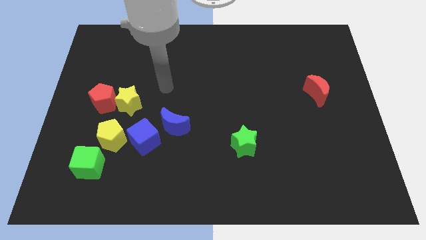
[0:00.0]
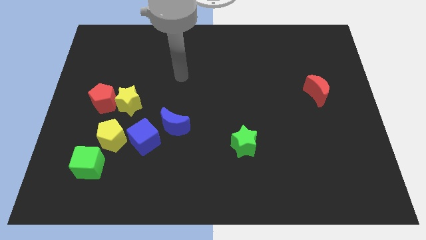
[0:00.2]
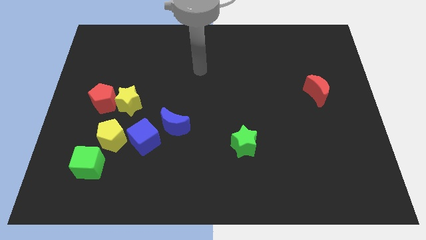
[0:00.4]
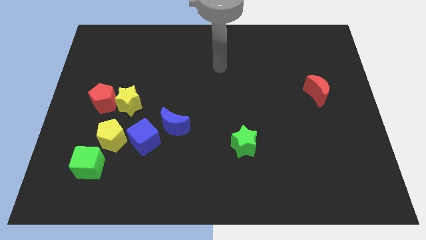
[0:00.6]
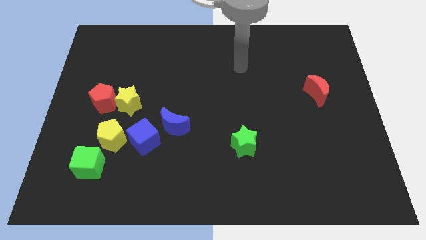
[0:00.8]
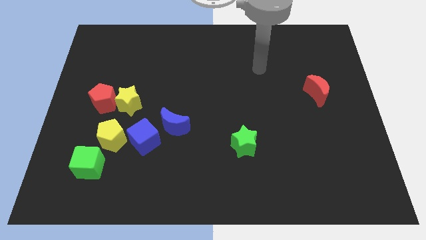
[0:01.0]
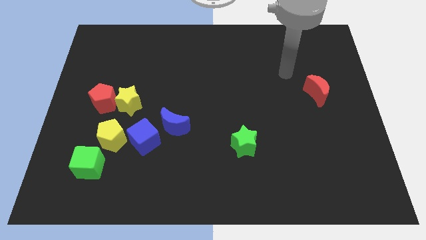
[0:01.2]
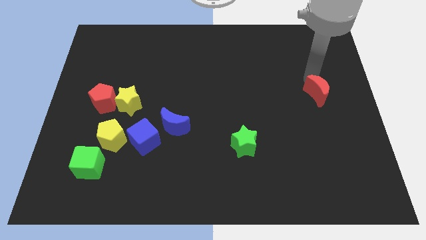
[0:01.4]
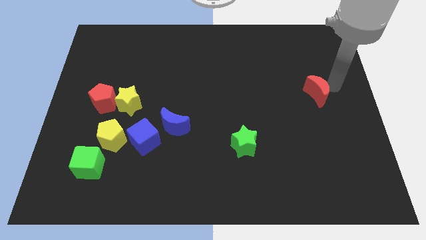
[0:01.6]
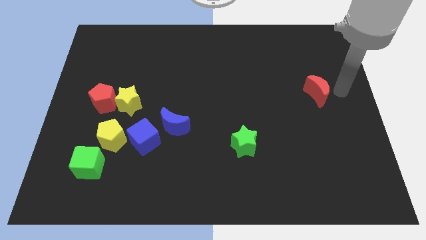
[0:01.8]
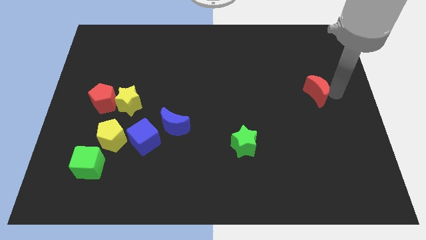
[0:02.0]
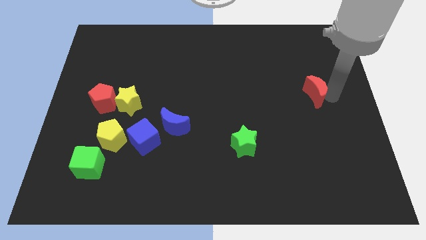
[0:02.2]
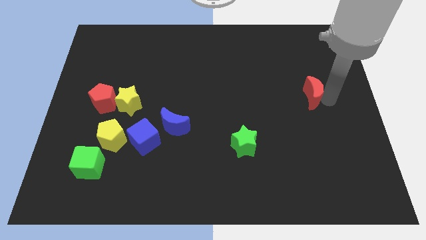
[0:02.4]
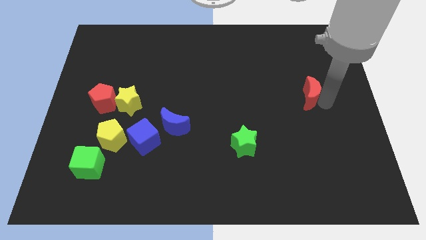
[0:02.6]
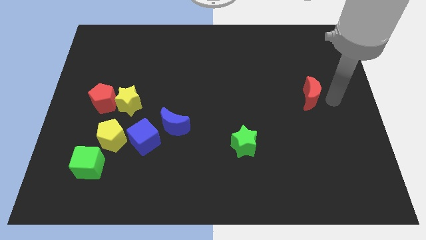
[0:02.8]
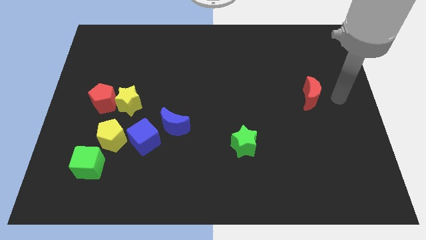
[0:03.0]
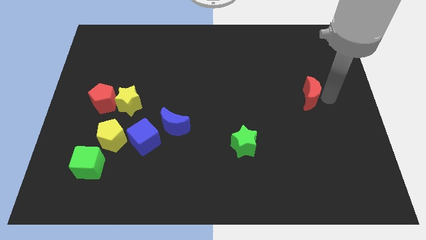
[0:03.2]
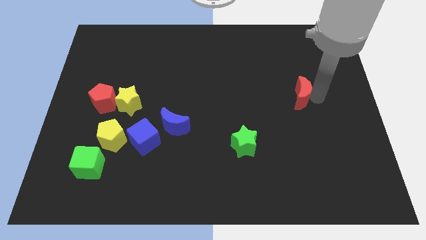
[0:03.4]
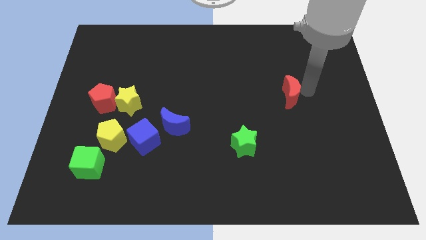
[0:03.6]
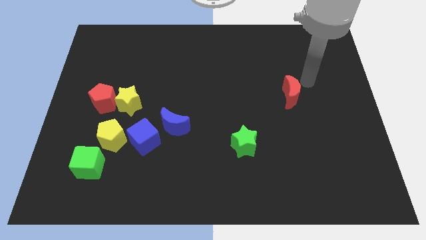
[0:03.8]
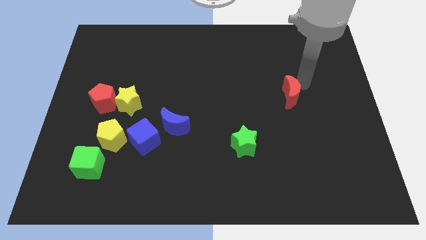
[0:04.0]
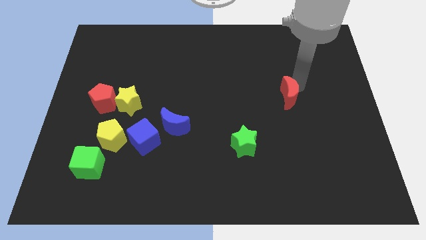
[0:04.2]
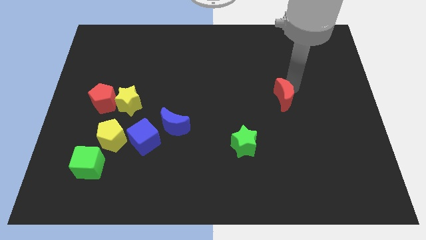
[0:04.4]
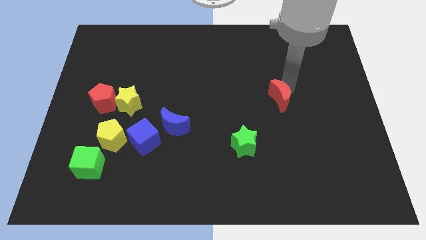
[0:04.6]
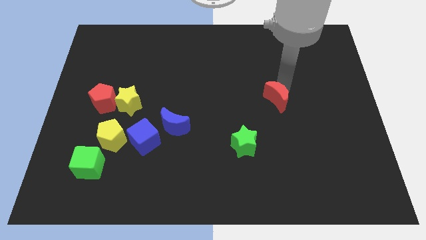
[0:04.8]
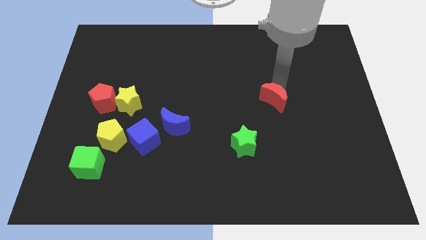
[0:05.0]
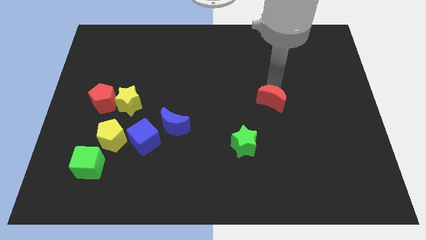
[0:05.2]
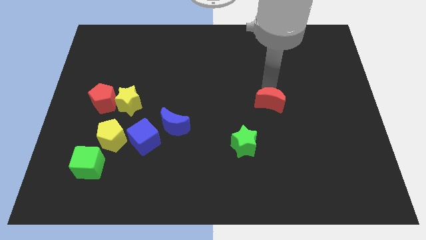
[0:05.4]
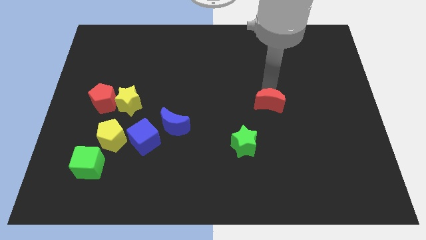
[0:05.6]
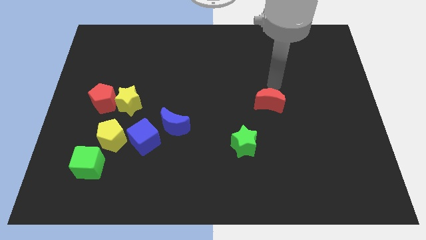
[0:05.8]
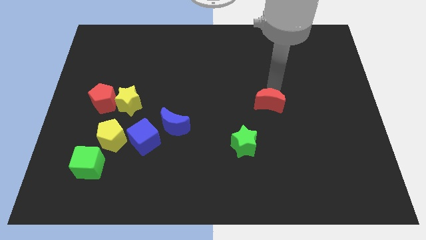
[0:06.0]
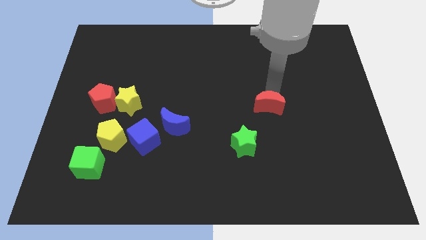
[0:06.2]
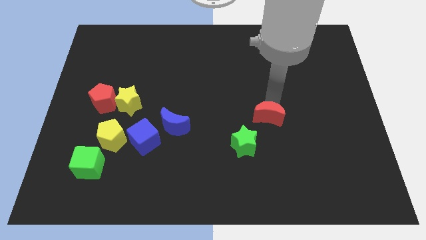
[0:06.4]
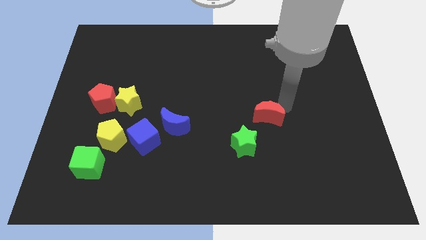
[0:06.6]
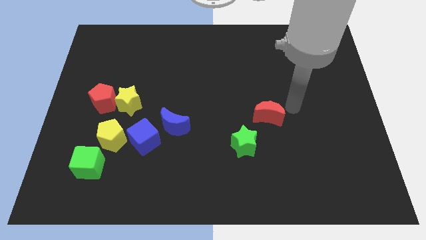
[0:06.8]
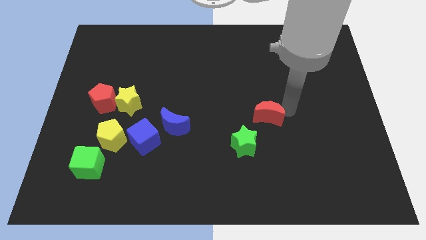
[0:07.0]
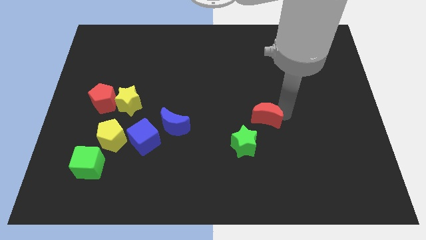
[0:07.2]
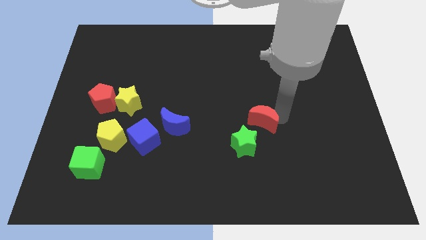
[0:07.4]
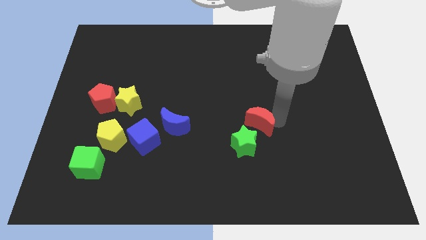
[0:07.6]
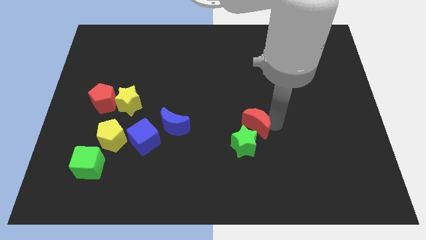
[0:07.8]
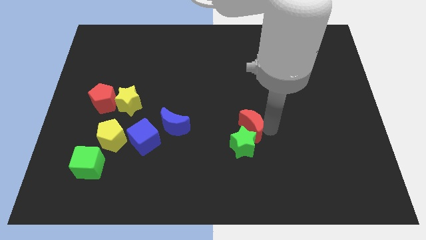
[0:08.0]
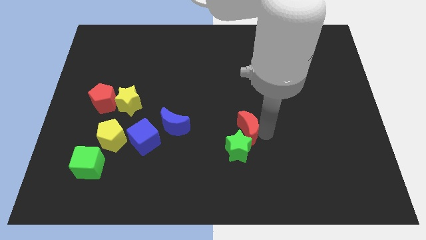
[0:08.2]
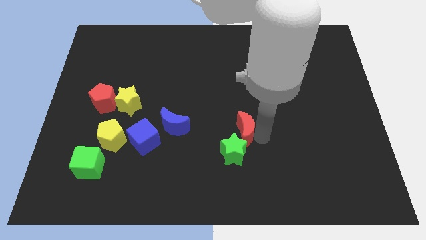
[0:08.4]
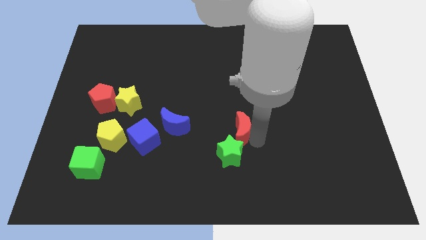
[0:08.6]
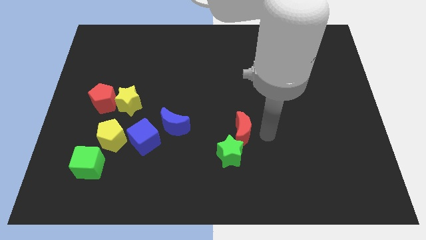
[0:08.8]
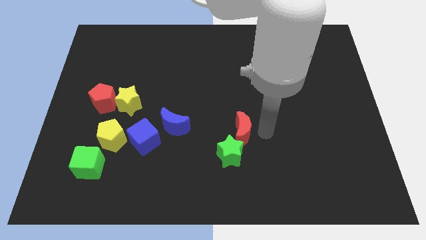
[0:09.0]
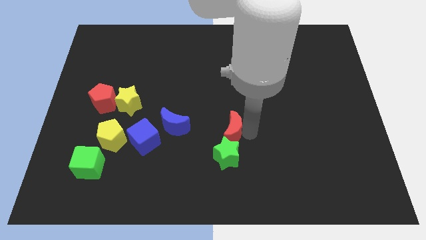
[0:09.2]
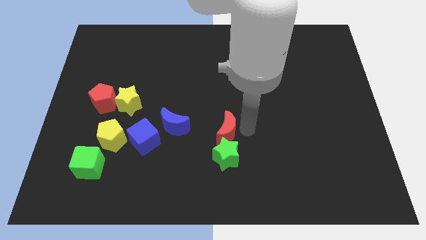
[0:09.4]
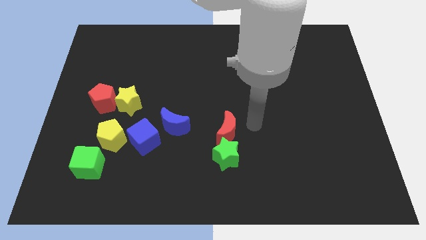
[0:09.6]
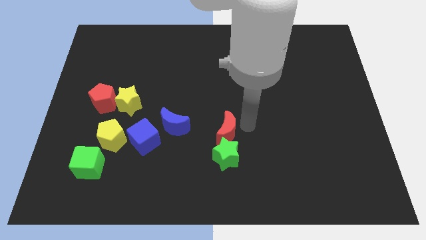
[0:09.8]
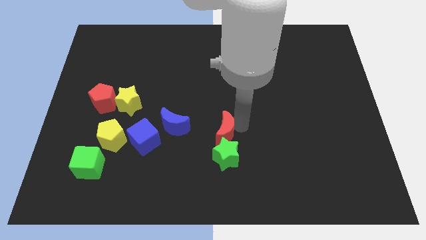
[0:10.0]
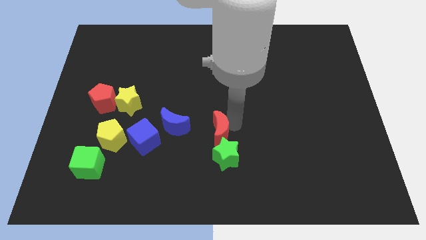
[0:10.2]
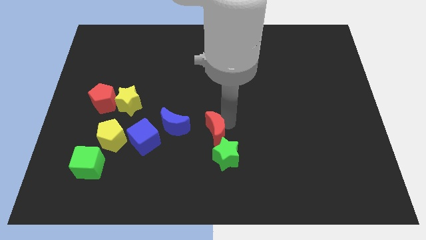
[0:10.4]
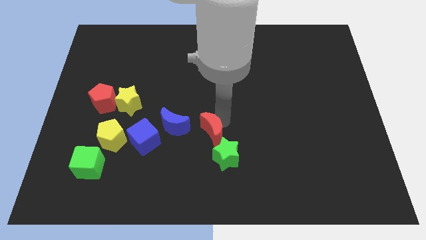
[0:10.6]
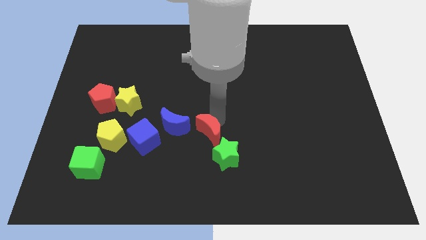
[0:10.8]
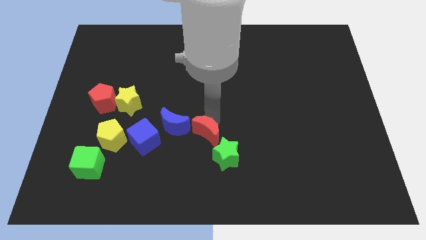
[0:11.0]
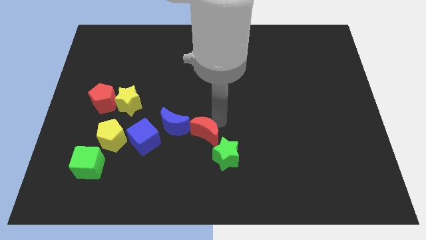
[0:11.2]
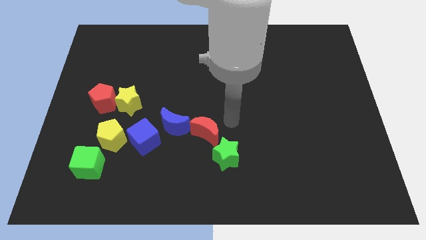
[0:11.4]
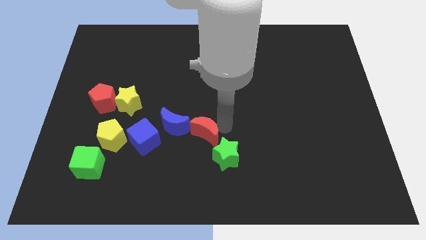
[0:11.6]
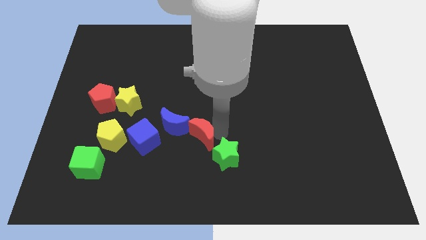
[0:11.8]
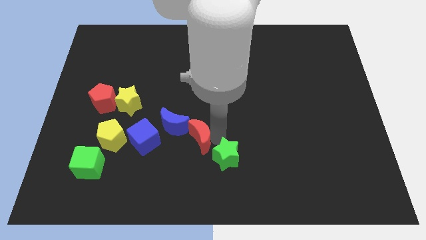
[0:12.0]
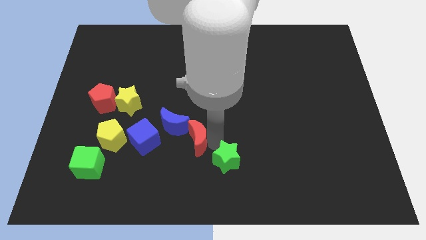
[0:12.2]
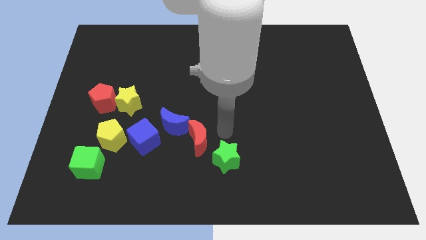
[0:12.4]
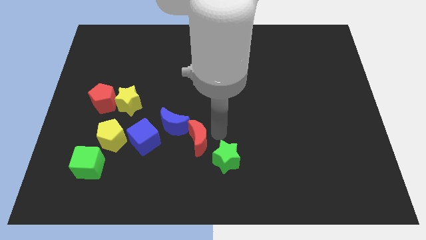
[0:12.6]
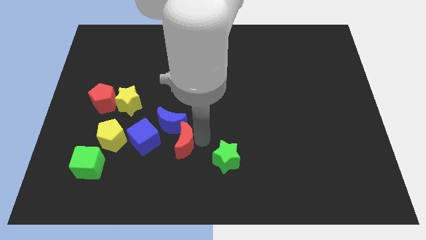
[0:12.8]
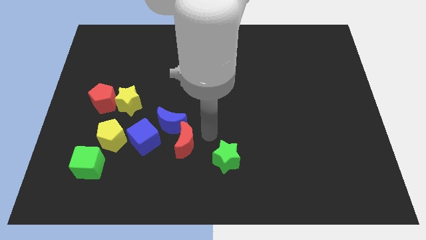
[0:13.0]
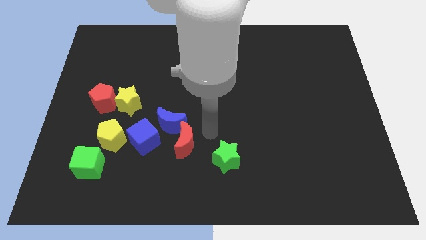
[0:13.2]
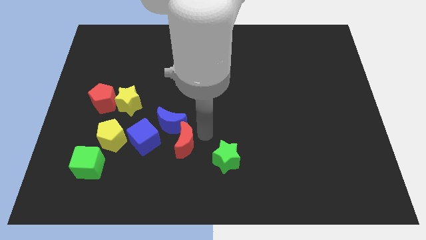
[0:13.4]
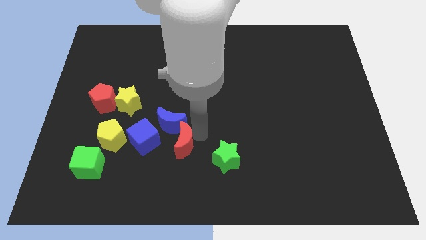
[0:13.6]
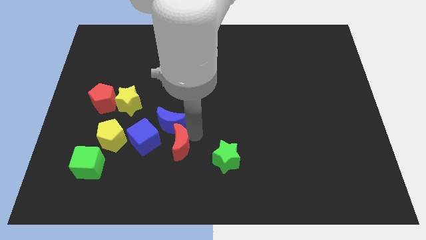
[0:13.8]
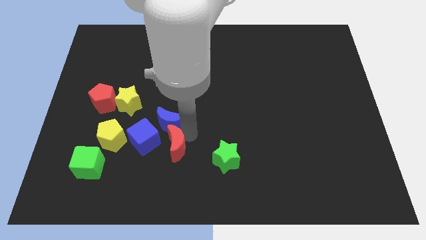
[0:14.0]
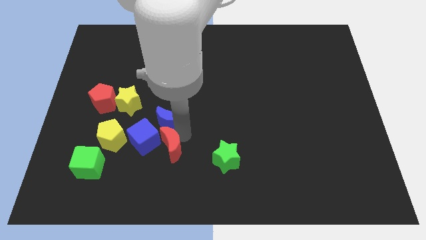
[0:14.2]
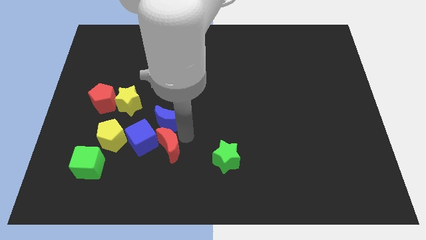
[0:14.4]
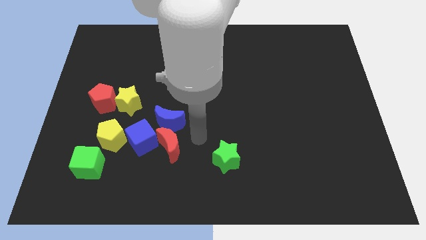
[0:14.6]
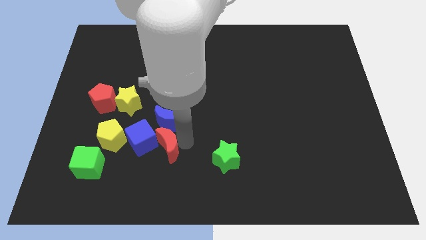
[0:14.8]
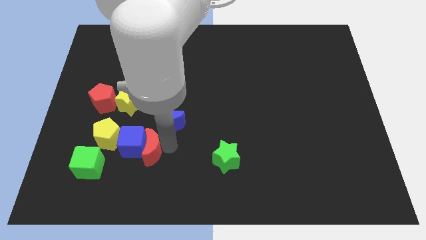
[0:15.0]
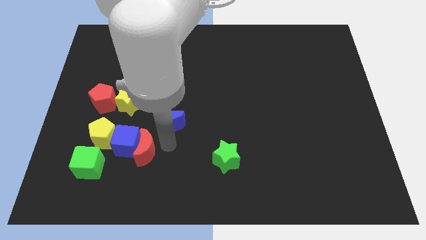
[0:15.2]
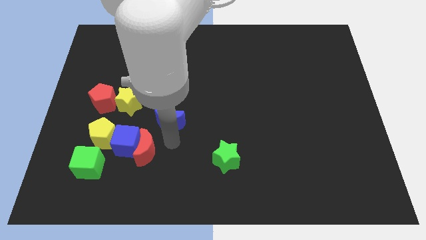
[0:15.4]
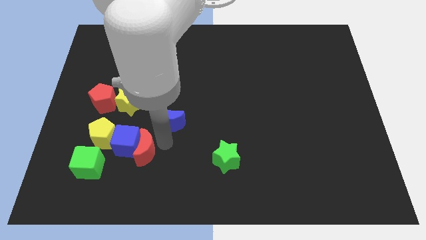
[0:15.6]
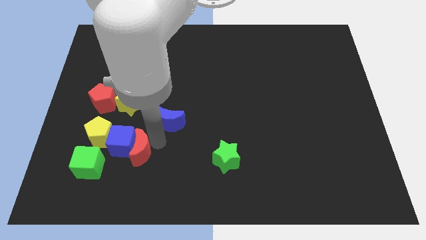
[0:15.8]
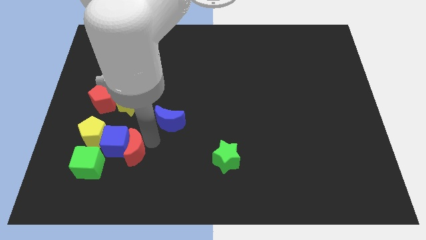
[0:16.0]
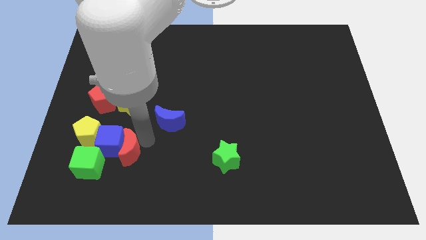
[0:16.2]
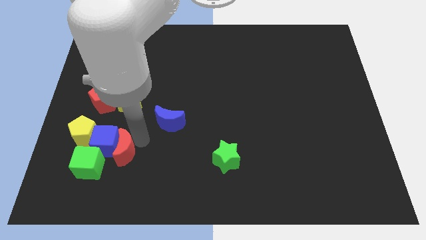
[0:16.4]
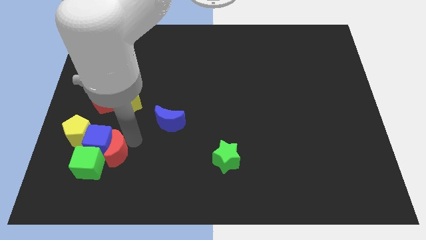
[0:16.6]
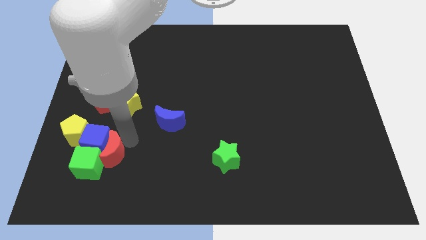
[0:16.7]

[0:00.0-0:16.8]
slide the red moon next to the green cube
